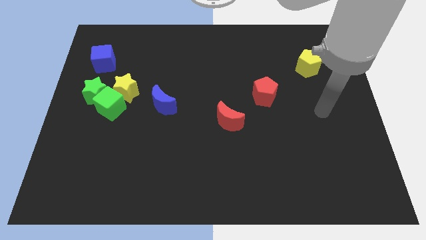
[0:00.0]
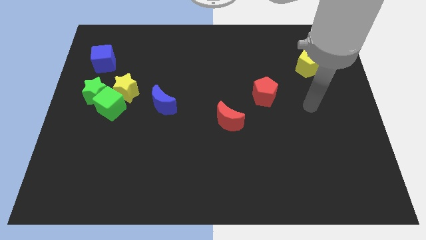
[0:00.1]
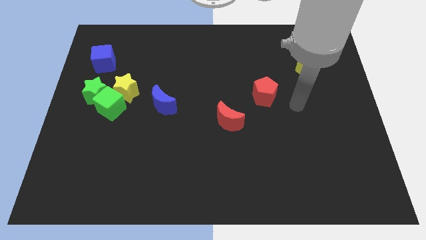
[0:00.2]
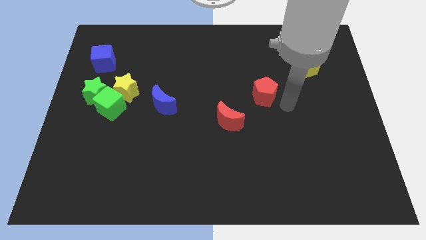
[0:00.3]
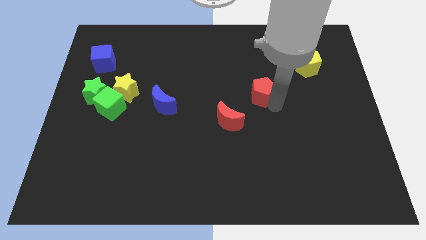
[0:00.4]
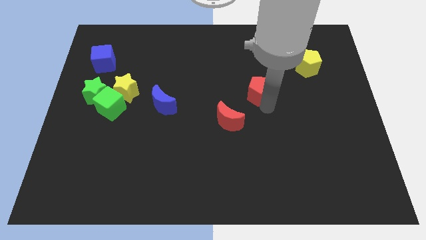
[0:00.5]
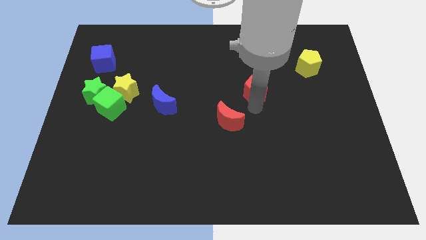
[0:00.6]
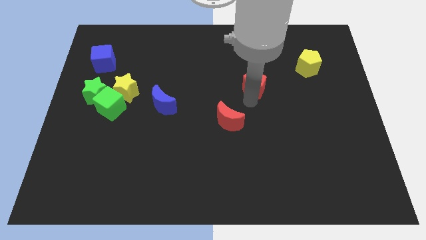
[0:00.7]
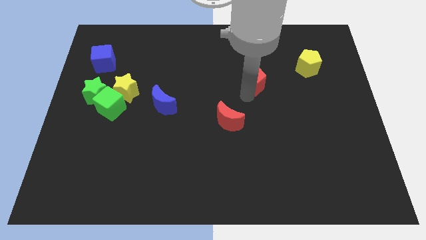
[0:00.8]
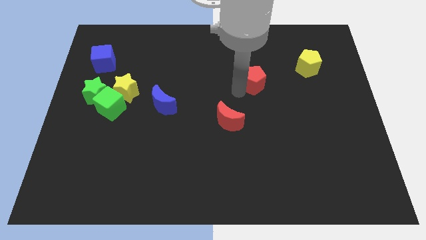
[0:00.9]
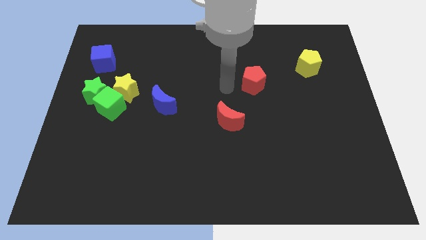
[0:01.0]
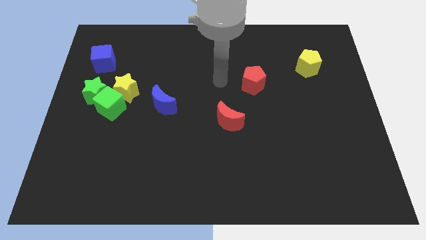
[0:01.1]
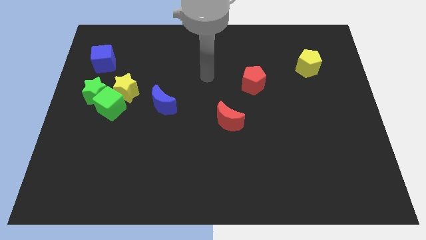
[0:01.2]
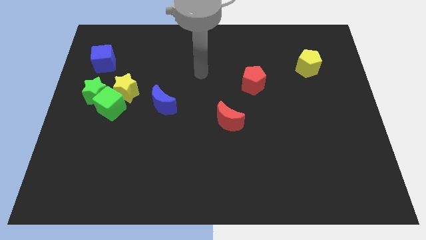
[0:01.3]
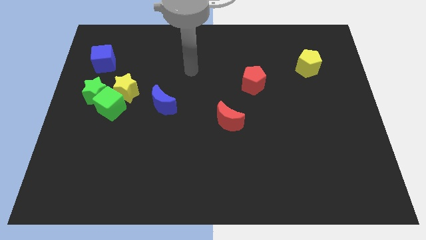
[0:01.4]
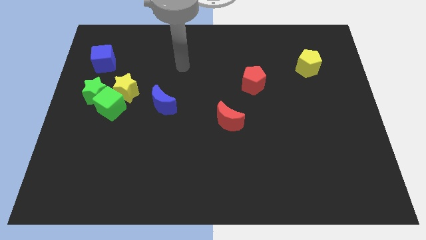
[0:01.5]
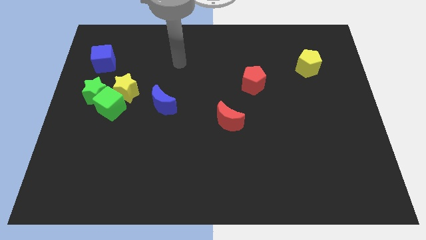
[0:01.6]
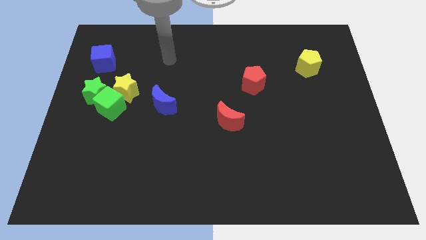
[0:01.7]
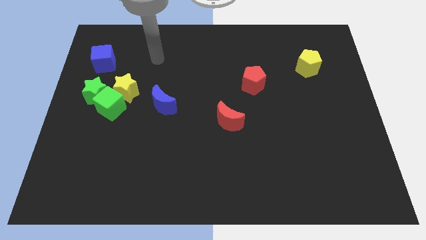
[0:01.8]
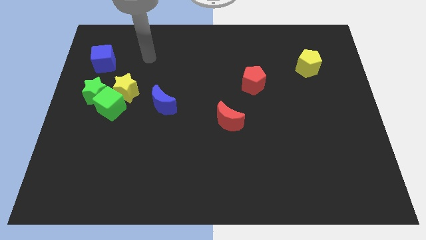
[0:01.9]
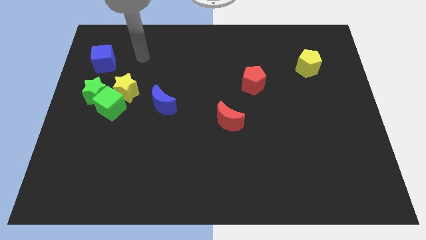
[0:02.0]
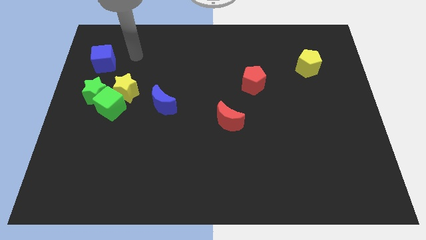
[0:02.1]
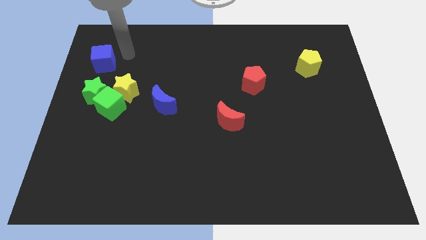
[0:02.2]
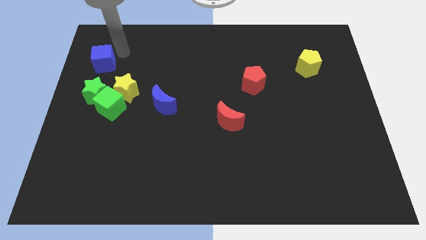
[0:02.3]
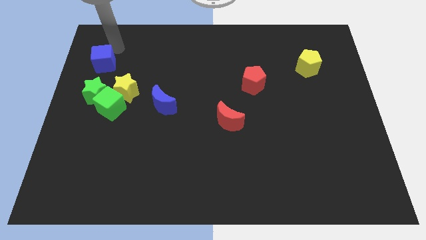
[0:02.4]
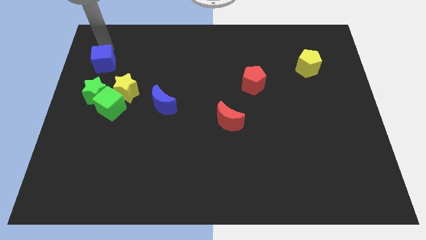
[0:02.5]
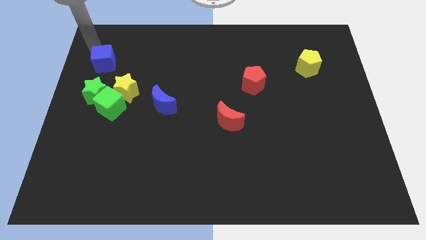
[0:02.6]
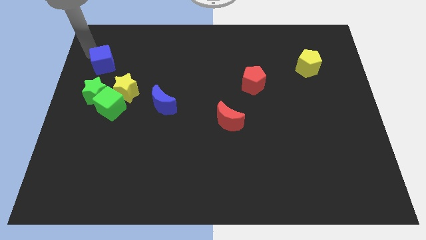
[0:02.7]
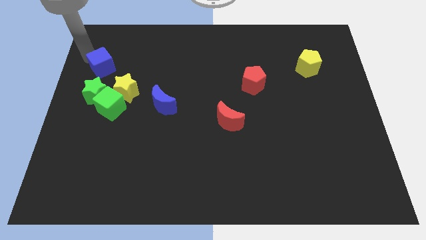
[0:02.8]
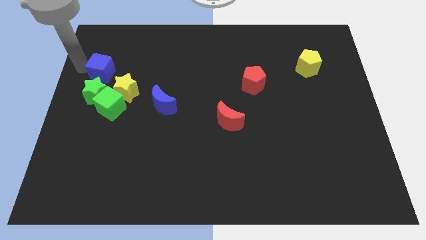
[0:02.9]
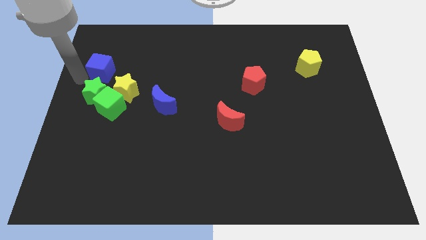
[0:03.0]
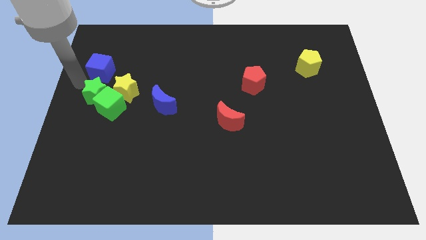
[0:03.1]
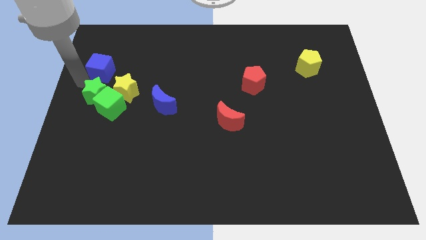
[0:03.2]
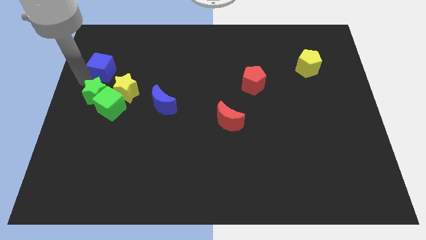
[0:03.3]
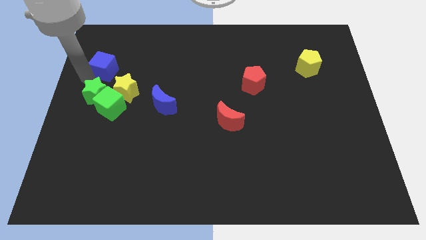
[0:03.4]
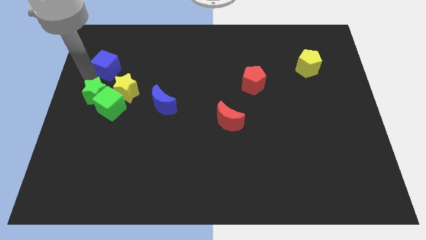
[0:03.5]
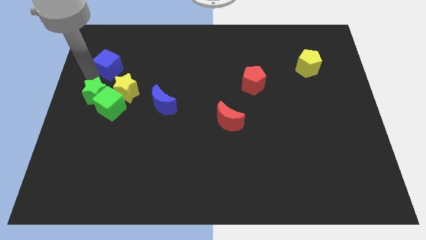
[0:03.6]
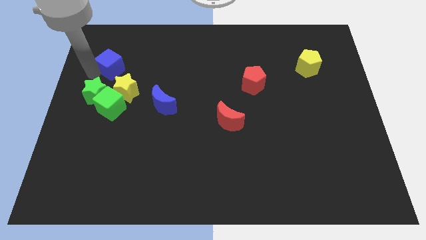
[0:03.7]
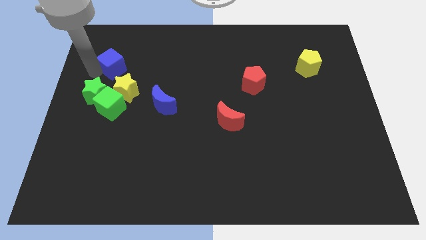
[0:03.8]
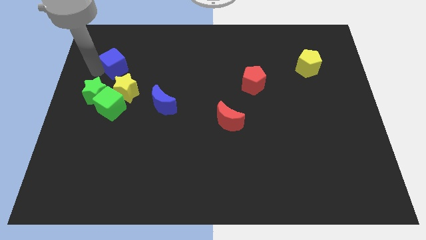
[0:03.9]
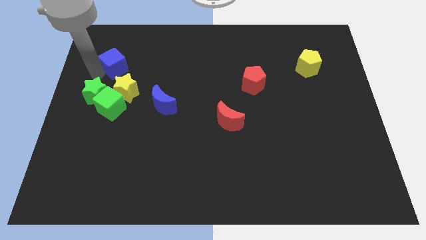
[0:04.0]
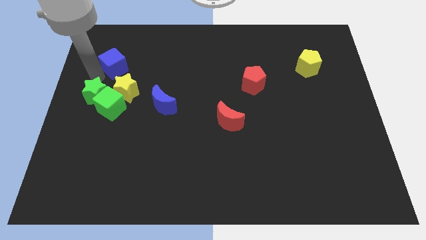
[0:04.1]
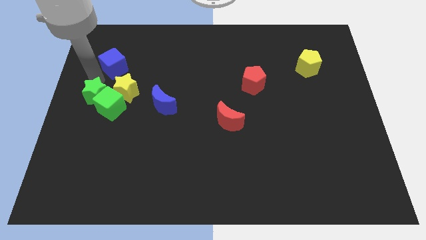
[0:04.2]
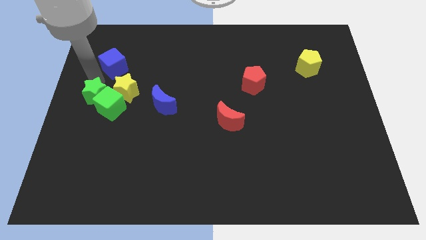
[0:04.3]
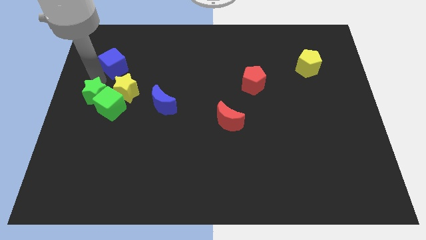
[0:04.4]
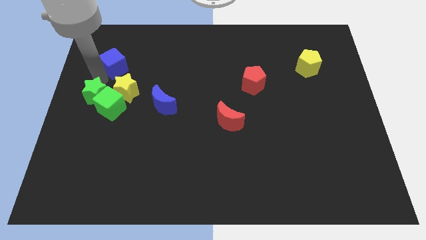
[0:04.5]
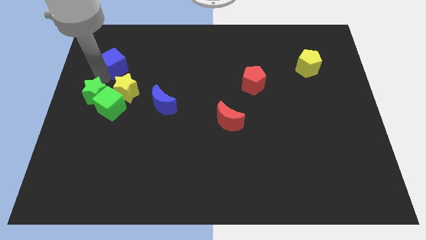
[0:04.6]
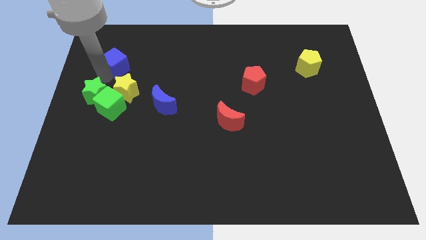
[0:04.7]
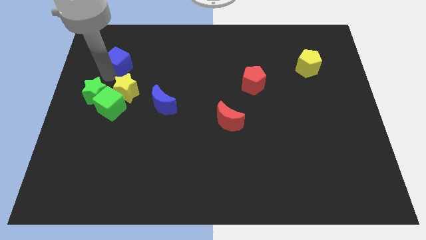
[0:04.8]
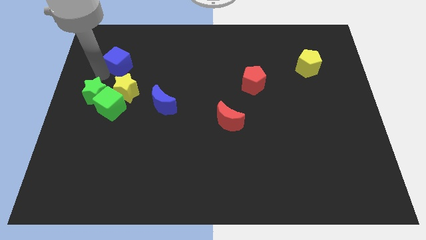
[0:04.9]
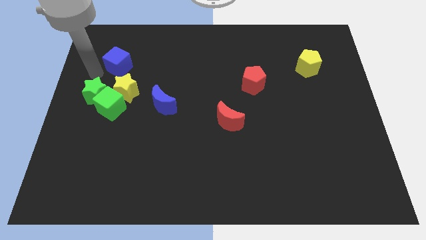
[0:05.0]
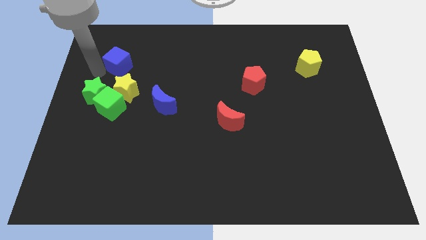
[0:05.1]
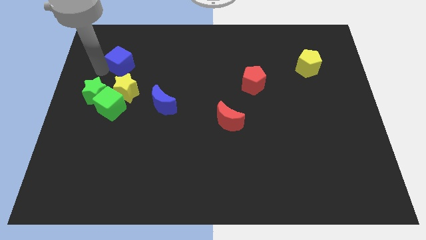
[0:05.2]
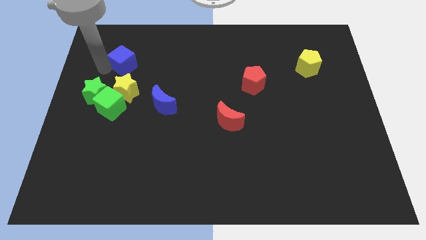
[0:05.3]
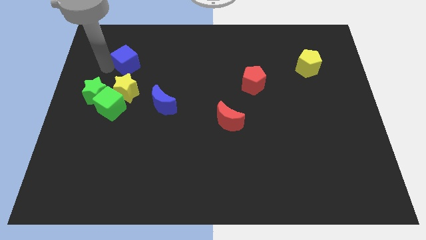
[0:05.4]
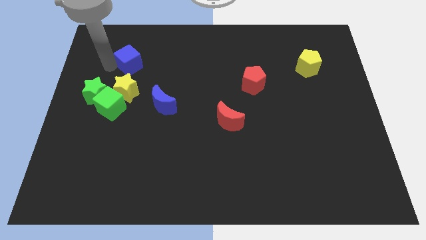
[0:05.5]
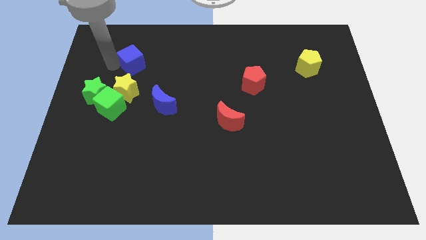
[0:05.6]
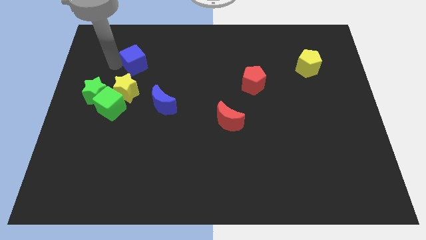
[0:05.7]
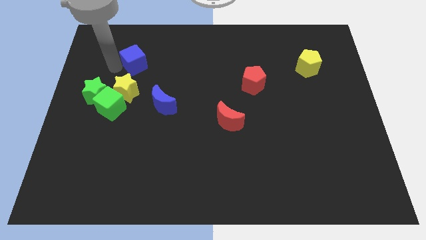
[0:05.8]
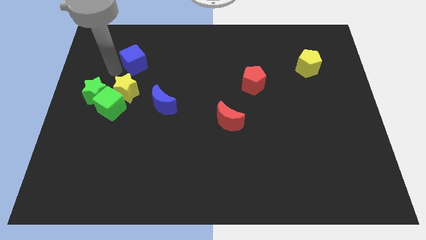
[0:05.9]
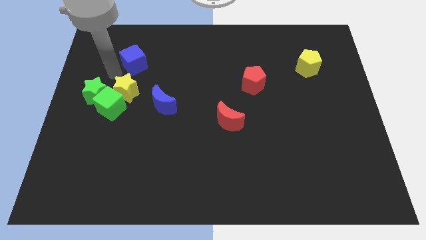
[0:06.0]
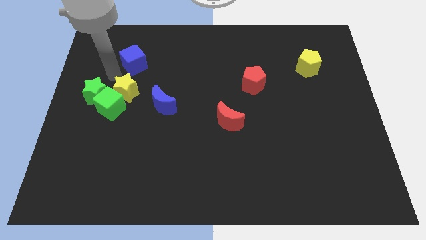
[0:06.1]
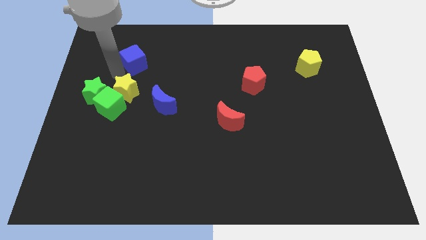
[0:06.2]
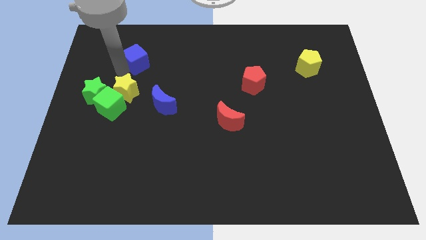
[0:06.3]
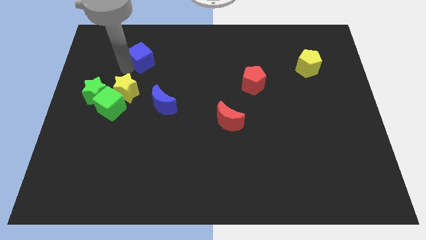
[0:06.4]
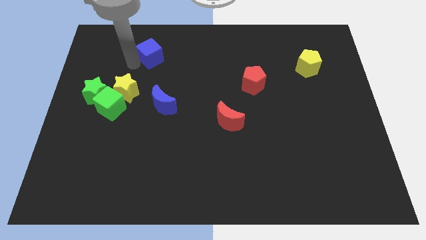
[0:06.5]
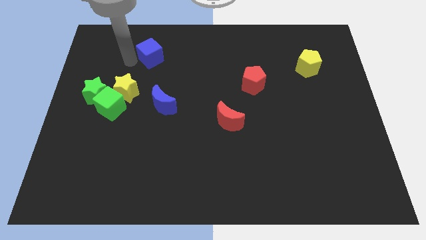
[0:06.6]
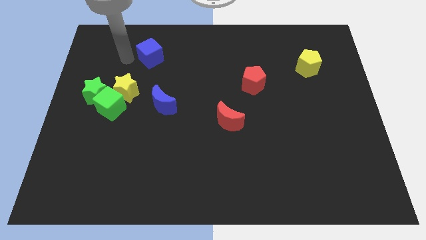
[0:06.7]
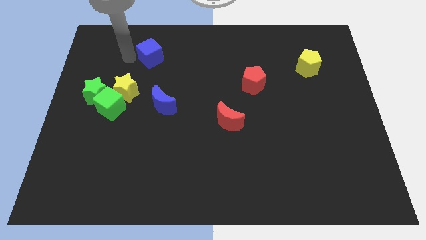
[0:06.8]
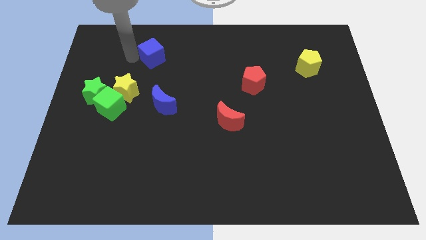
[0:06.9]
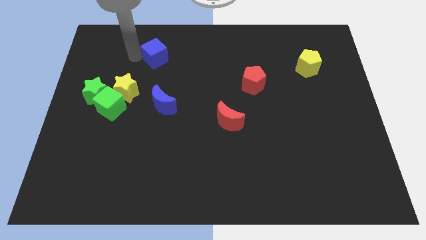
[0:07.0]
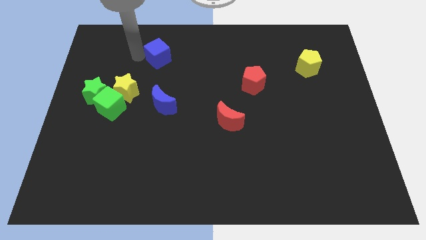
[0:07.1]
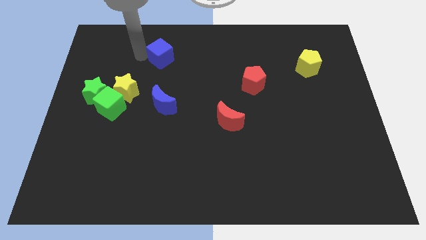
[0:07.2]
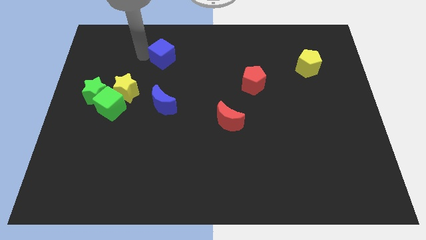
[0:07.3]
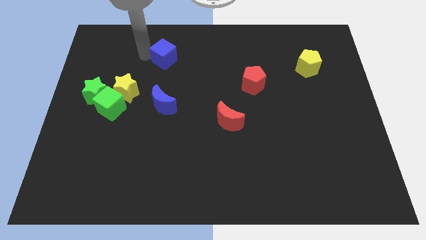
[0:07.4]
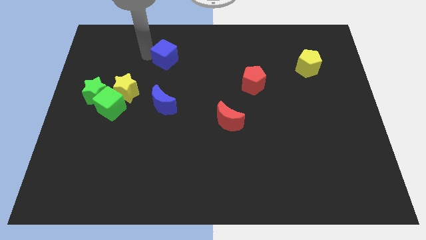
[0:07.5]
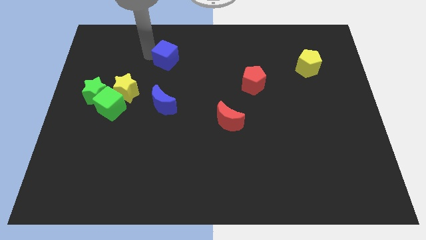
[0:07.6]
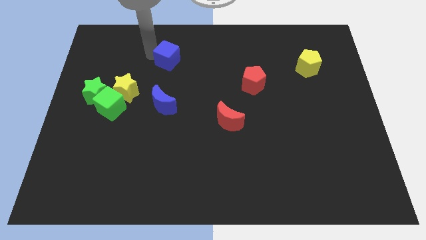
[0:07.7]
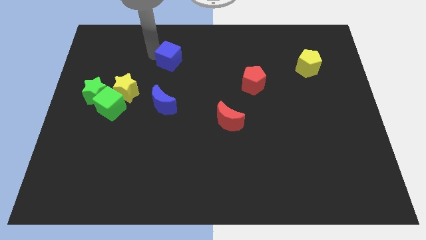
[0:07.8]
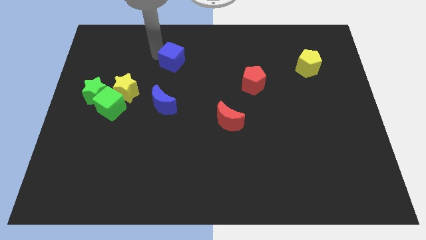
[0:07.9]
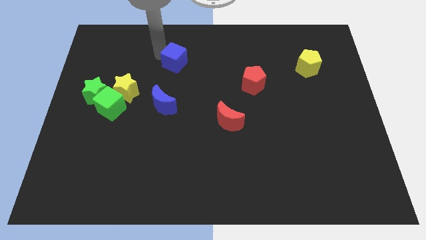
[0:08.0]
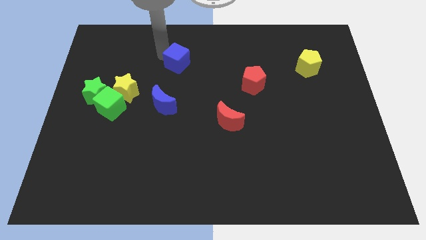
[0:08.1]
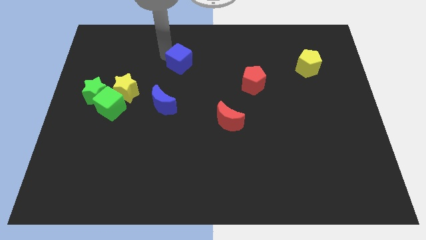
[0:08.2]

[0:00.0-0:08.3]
move the blue cube to the right
